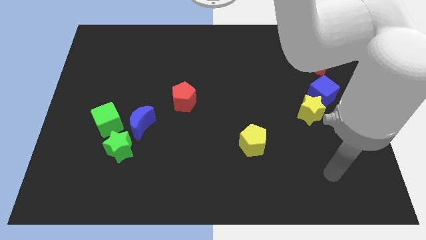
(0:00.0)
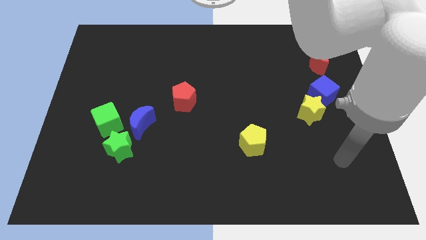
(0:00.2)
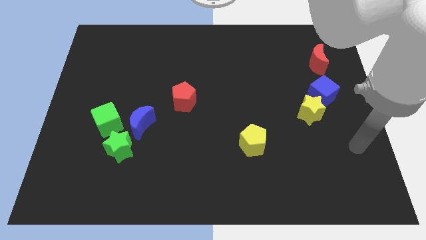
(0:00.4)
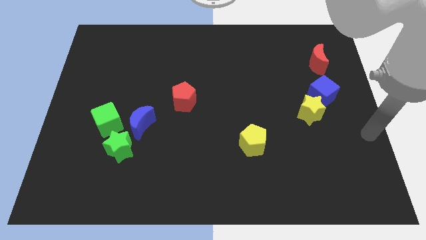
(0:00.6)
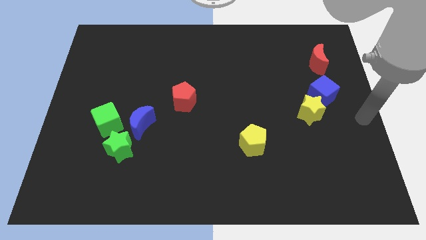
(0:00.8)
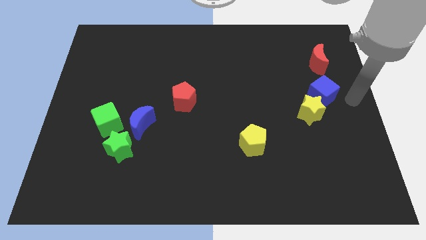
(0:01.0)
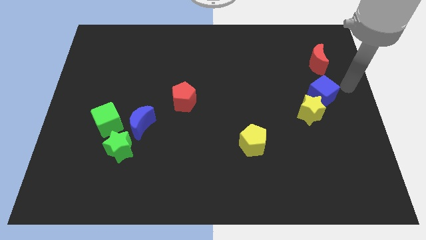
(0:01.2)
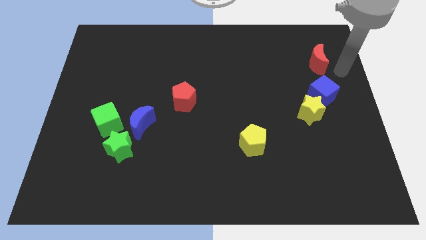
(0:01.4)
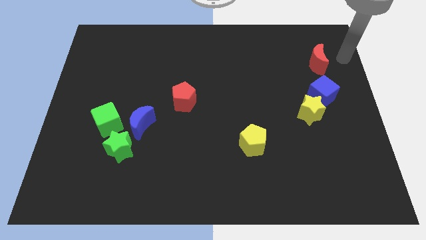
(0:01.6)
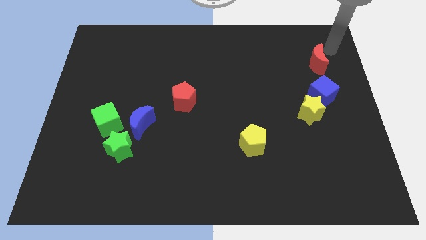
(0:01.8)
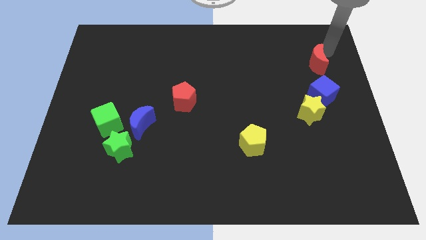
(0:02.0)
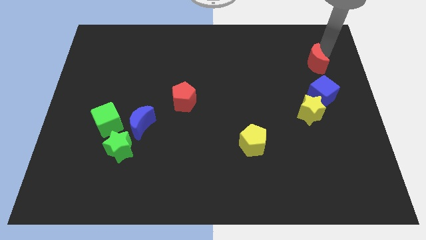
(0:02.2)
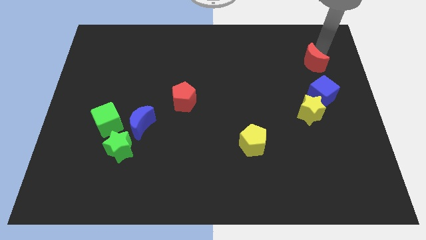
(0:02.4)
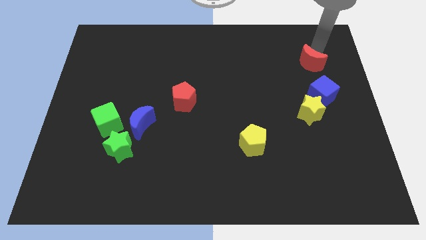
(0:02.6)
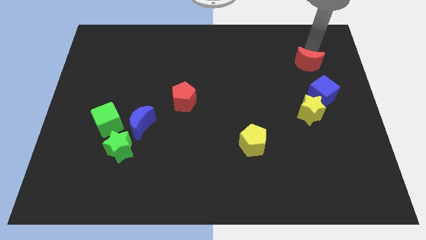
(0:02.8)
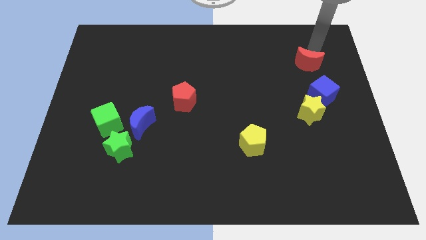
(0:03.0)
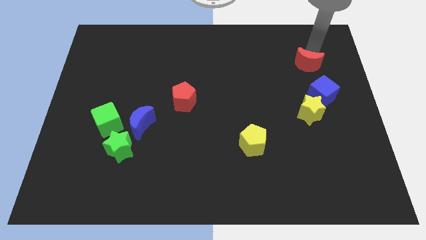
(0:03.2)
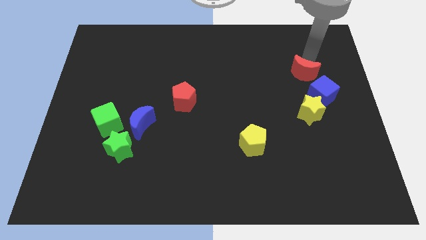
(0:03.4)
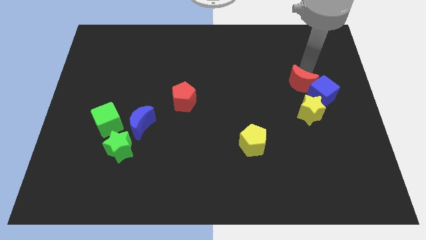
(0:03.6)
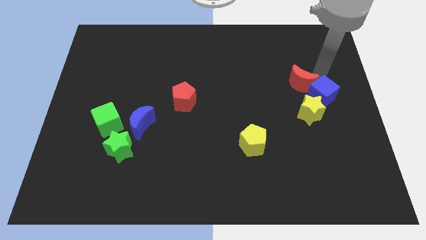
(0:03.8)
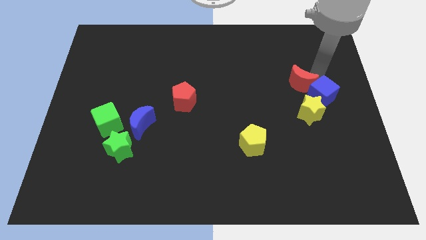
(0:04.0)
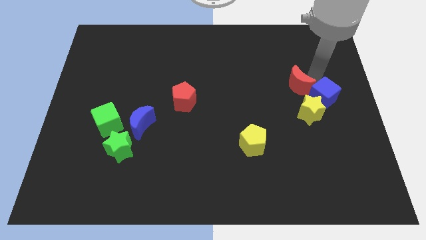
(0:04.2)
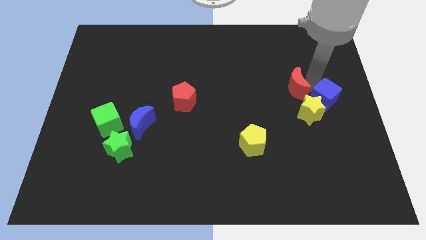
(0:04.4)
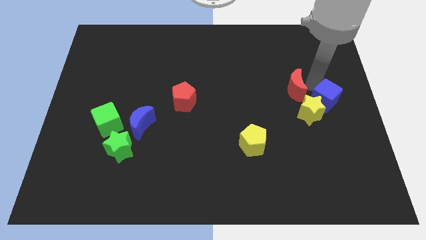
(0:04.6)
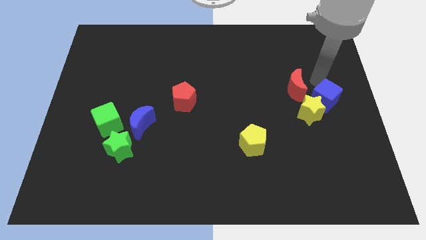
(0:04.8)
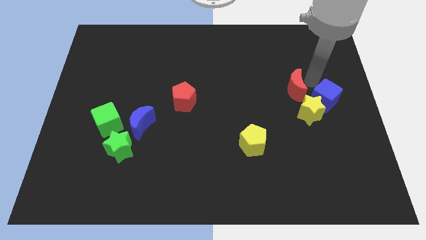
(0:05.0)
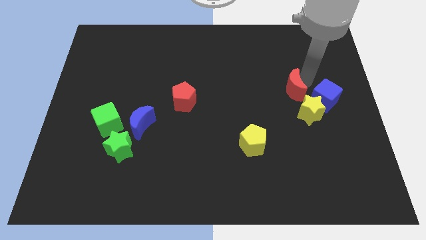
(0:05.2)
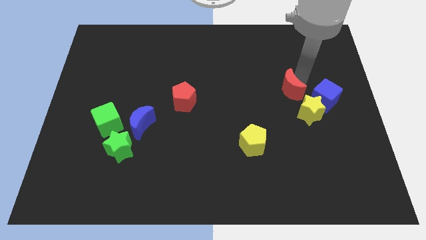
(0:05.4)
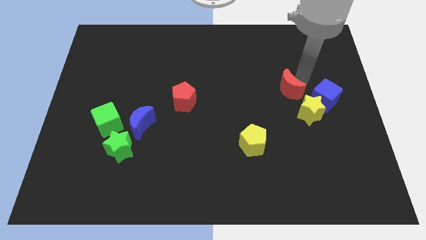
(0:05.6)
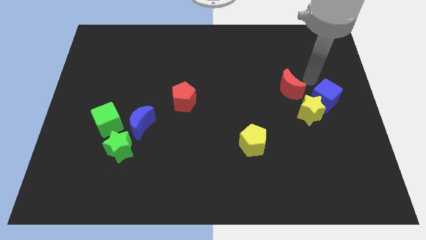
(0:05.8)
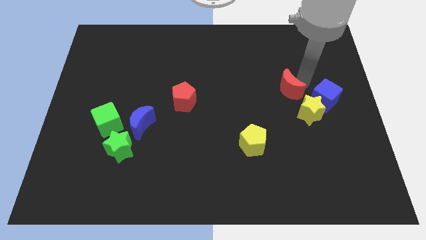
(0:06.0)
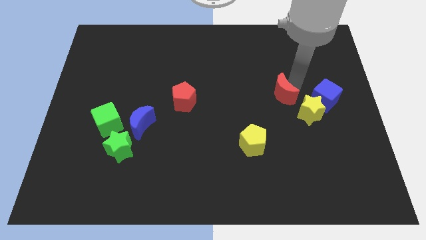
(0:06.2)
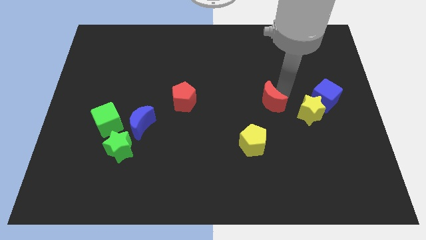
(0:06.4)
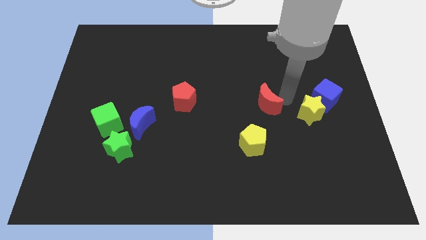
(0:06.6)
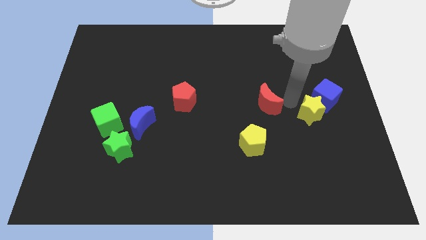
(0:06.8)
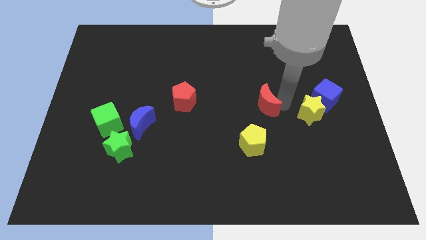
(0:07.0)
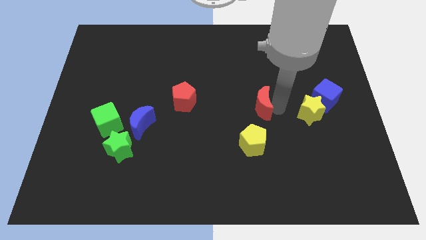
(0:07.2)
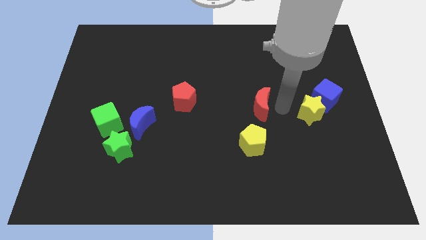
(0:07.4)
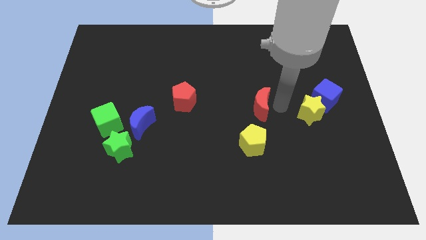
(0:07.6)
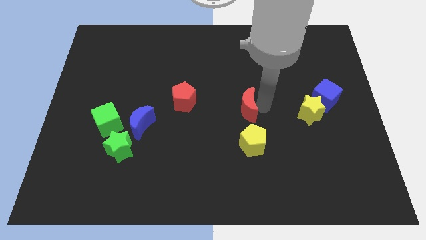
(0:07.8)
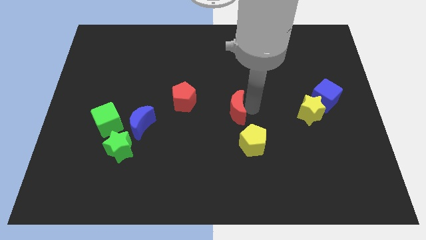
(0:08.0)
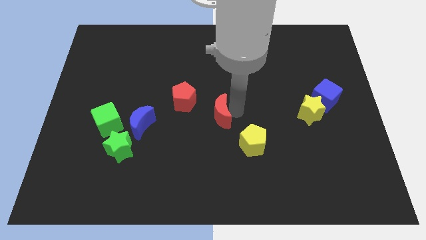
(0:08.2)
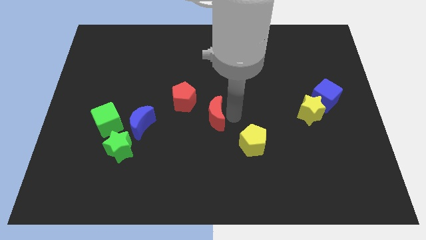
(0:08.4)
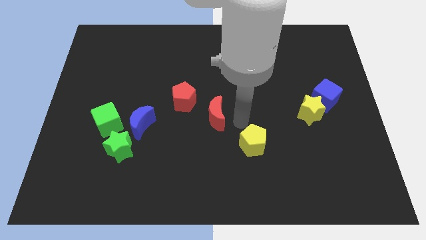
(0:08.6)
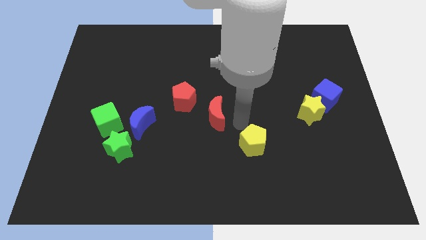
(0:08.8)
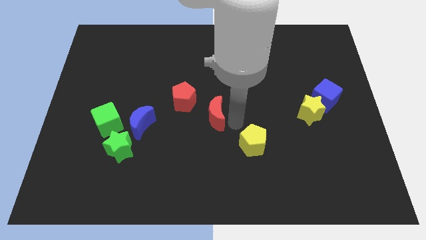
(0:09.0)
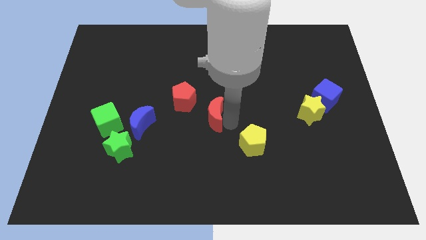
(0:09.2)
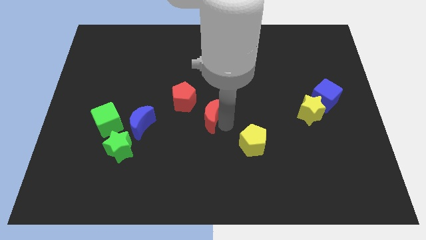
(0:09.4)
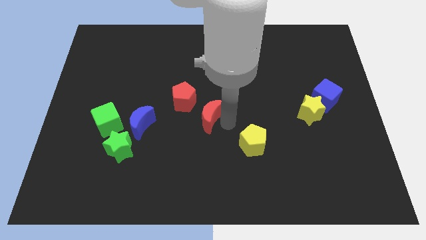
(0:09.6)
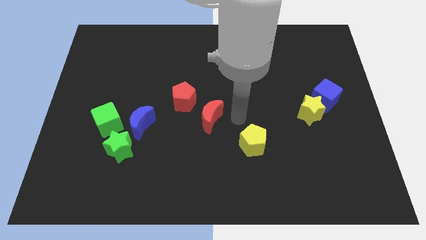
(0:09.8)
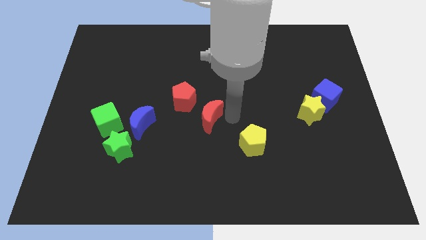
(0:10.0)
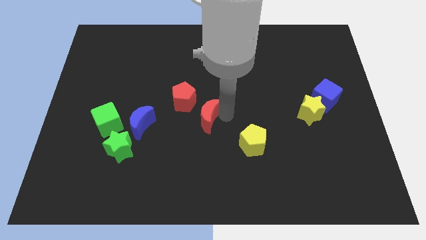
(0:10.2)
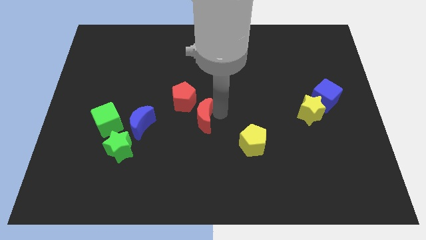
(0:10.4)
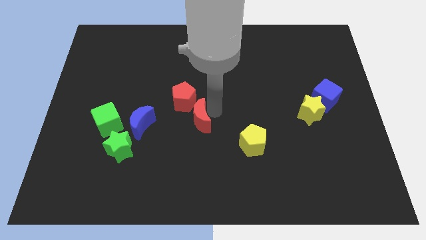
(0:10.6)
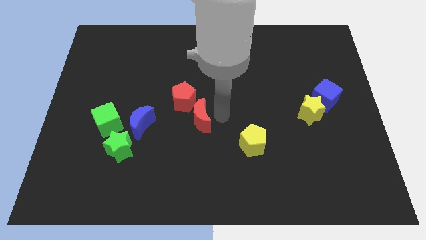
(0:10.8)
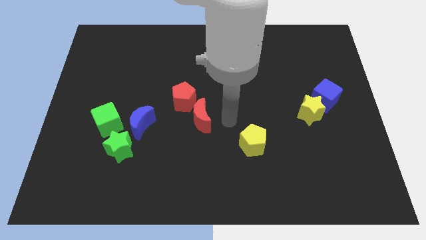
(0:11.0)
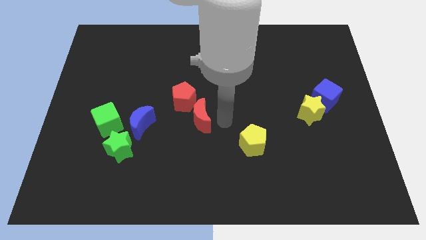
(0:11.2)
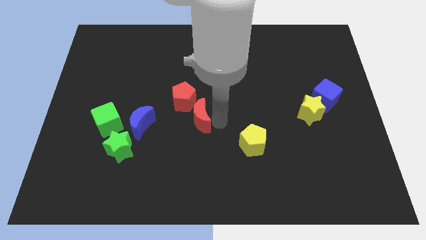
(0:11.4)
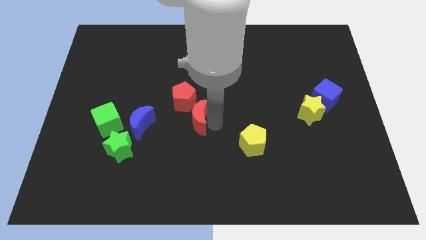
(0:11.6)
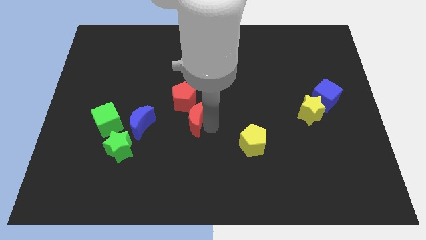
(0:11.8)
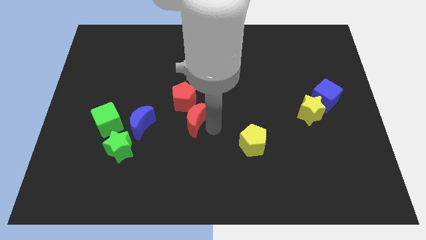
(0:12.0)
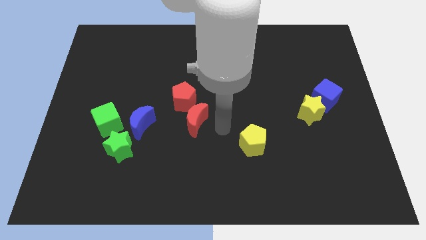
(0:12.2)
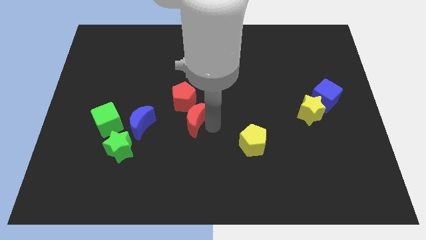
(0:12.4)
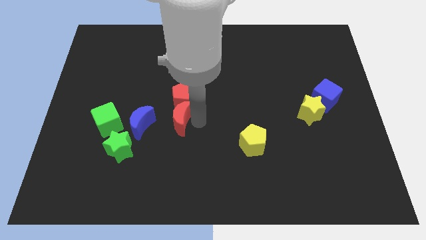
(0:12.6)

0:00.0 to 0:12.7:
put the red moon just right of the green cube
